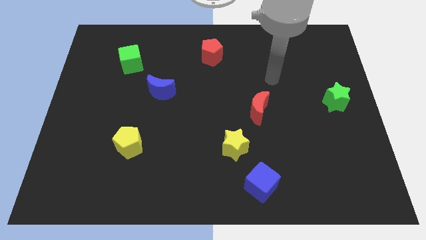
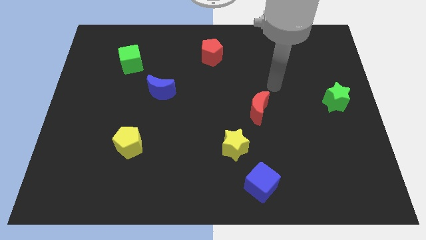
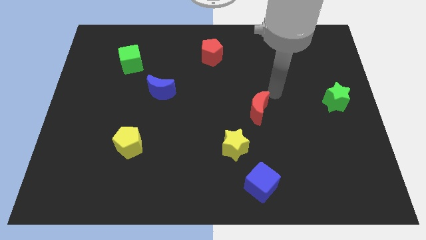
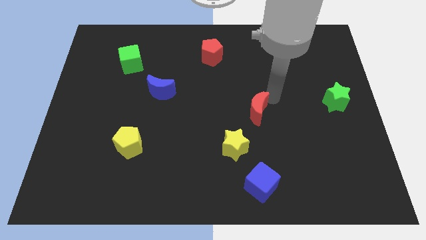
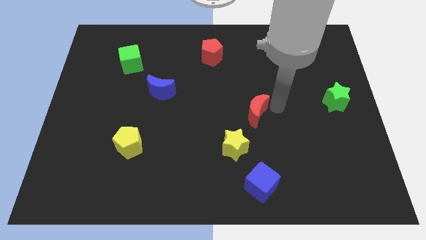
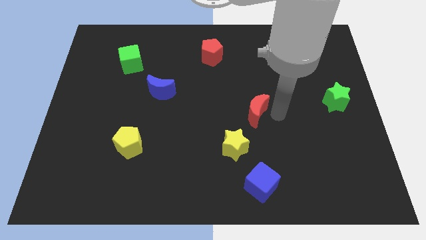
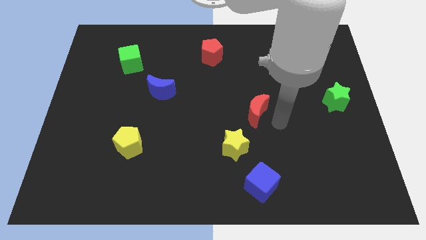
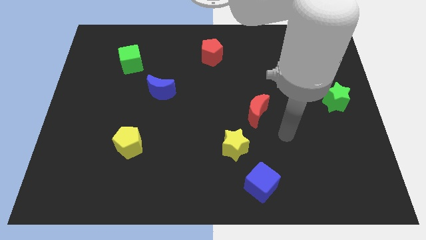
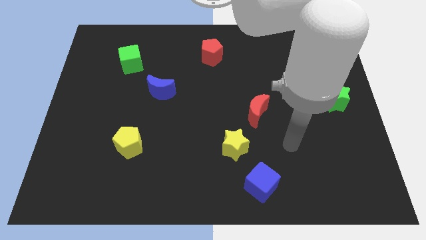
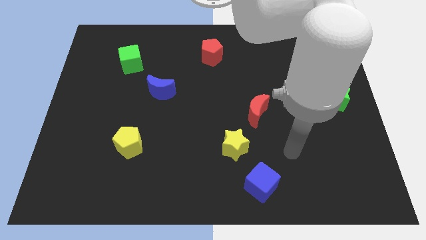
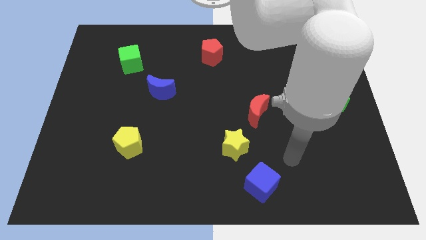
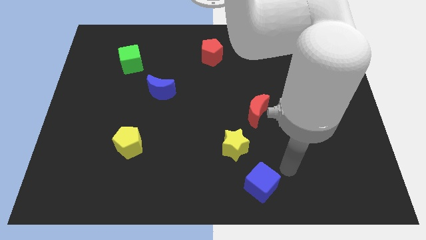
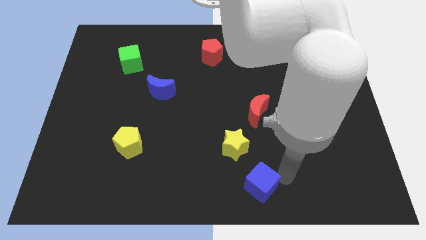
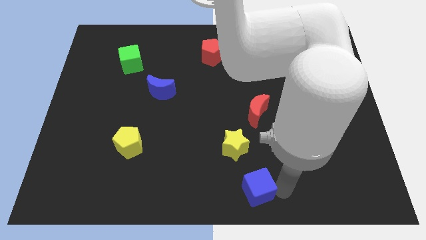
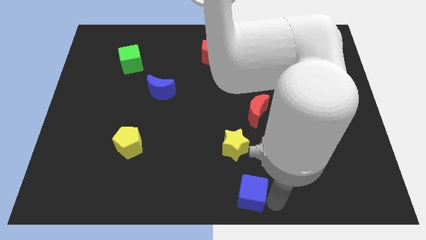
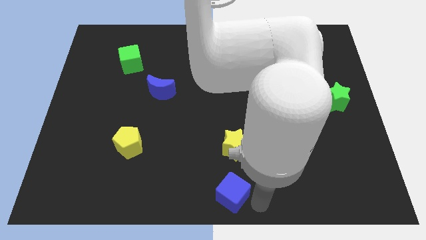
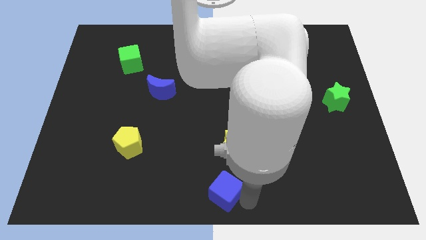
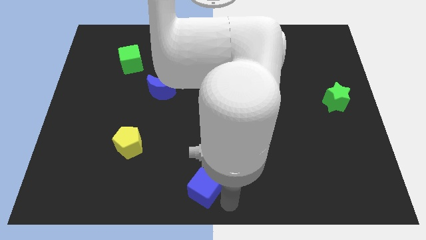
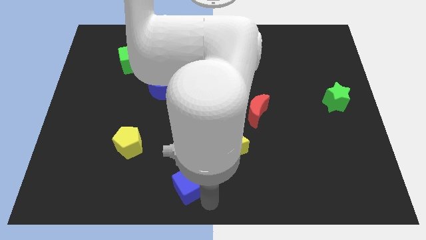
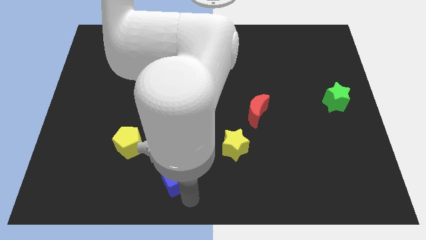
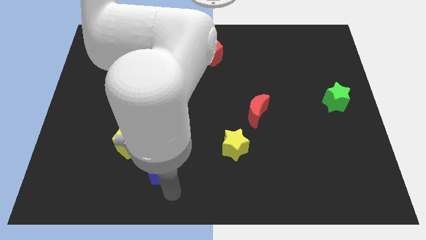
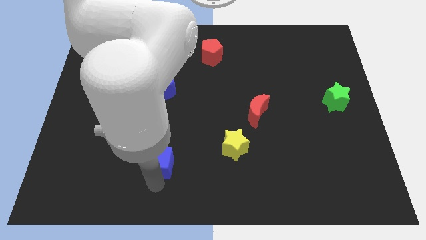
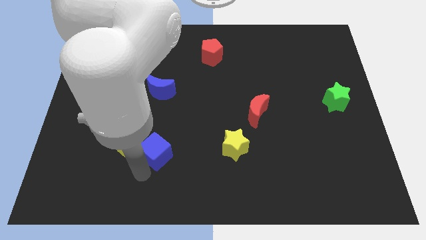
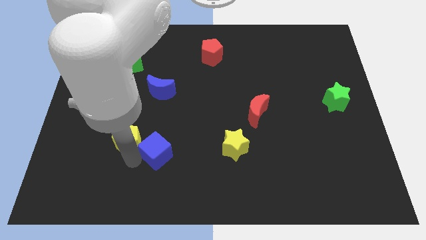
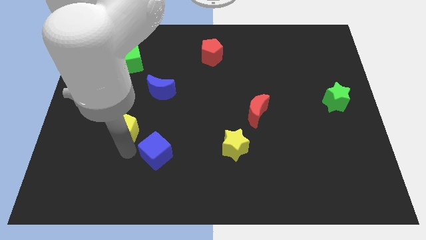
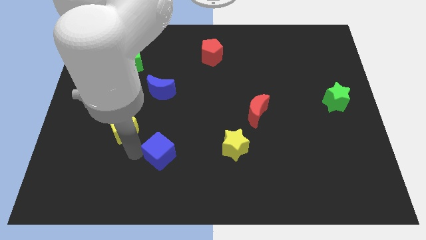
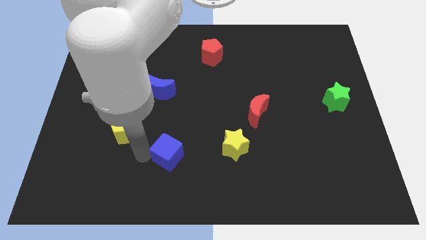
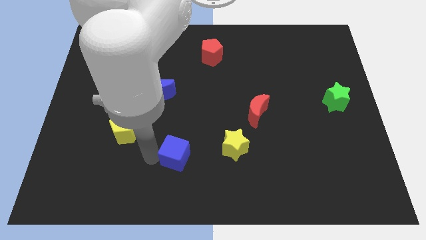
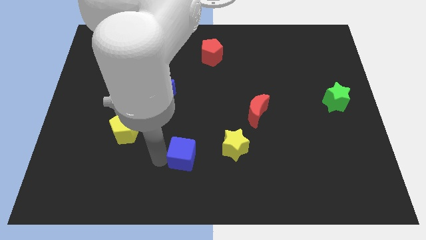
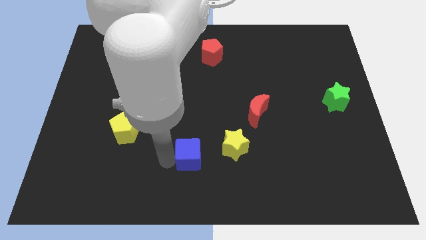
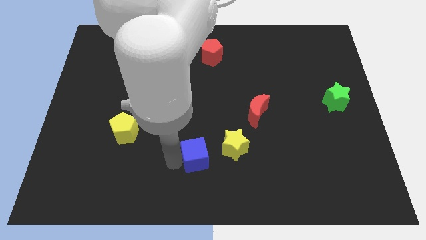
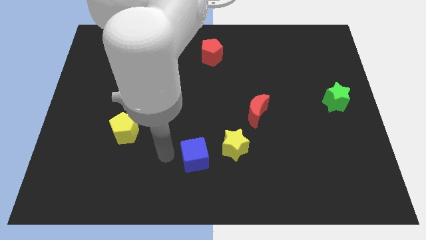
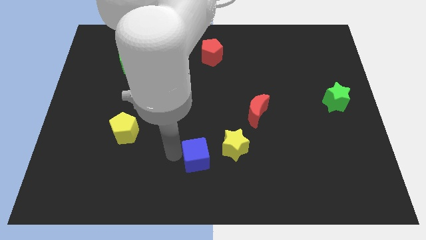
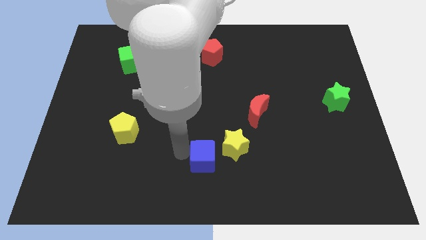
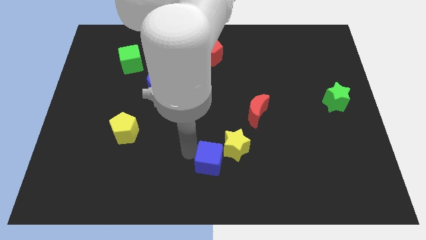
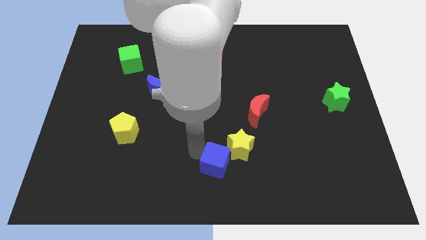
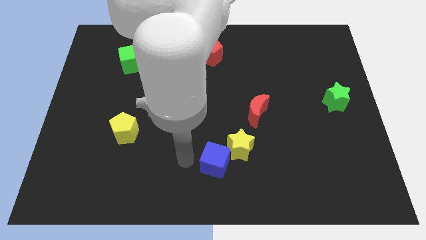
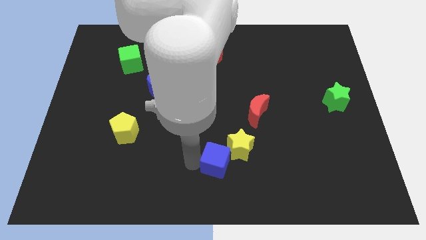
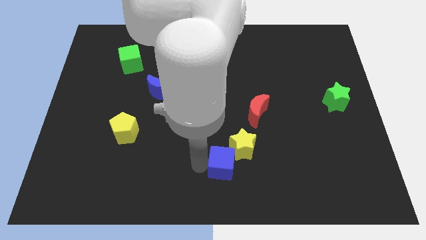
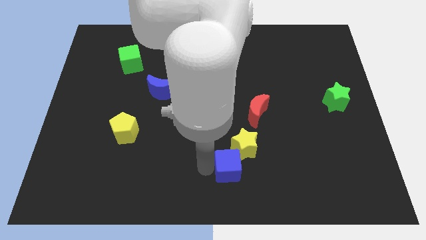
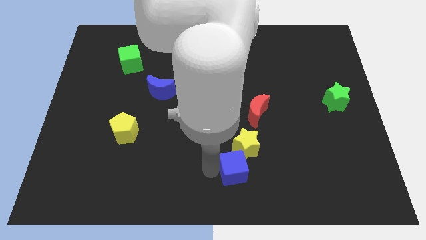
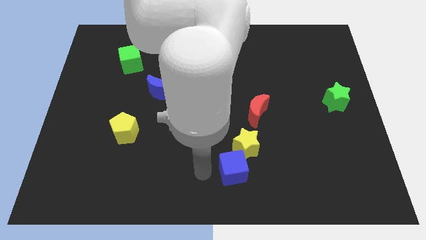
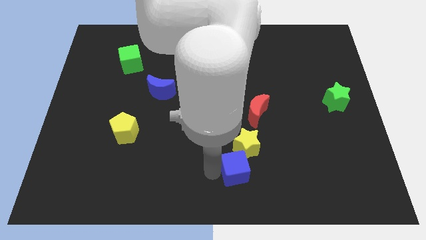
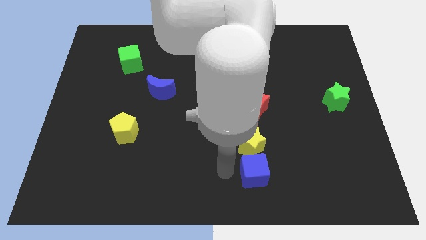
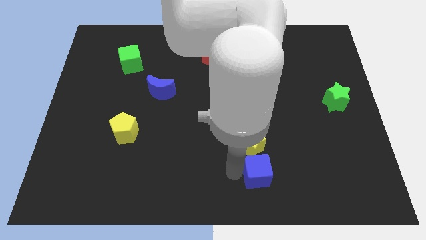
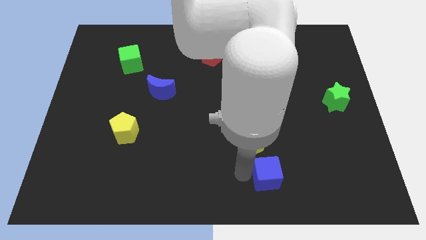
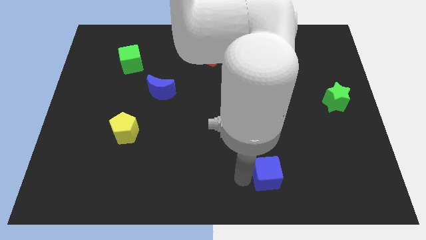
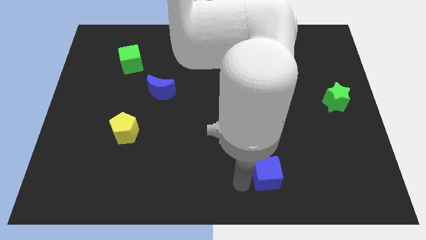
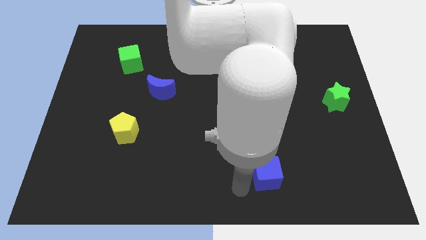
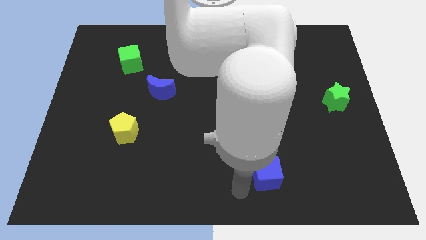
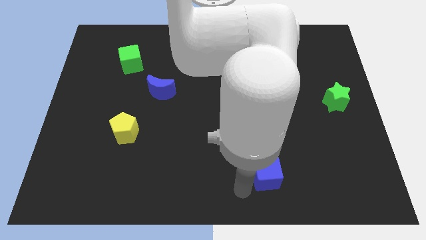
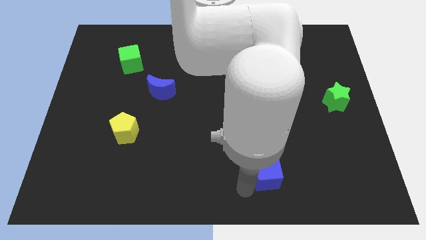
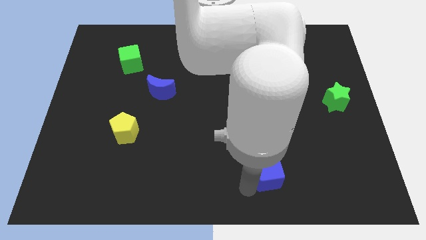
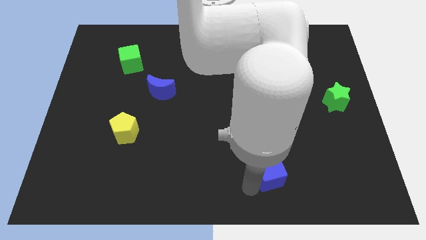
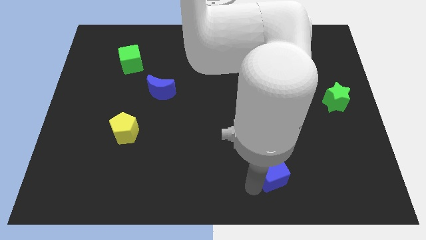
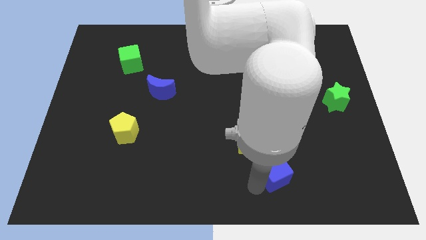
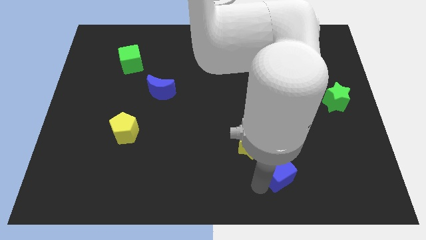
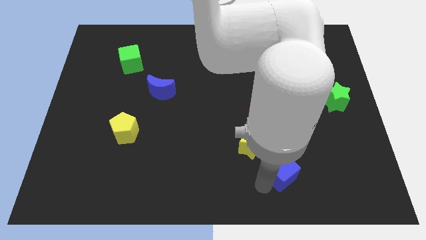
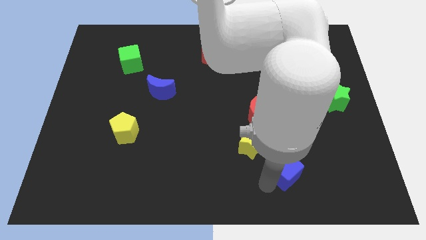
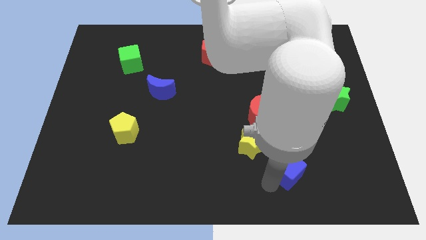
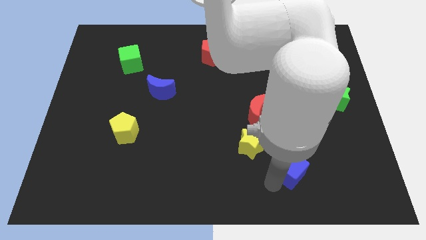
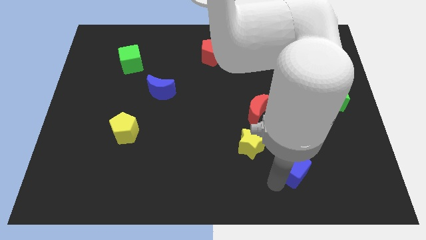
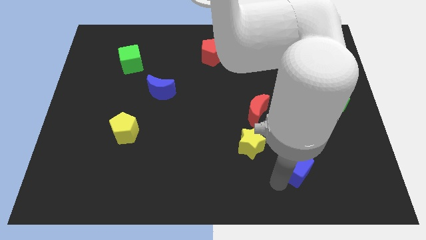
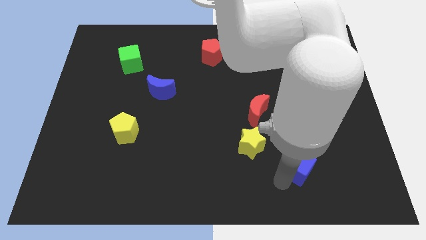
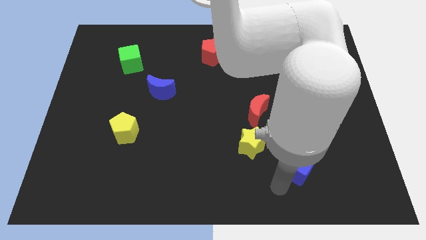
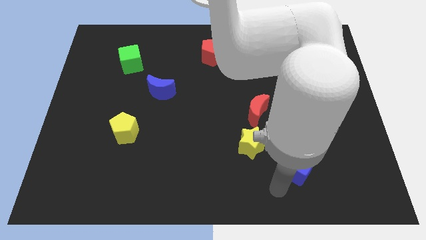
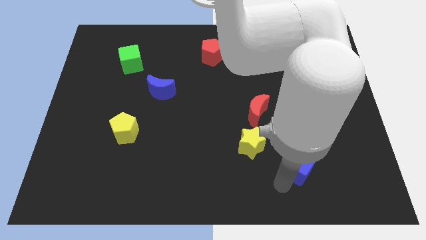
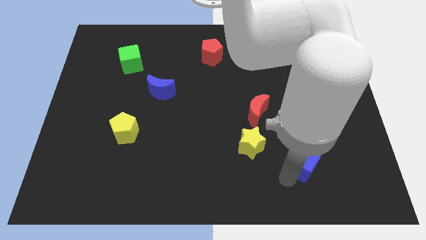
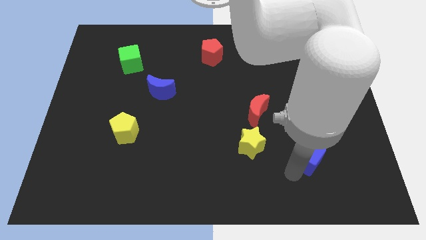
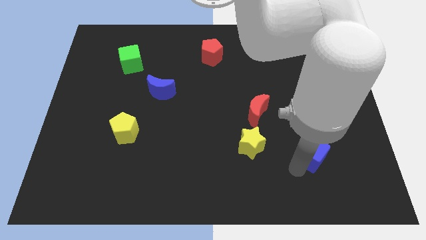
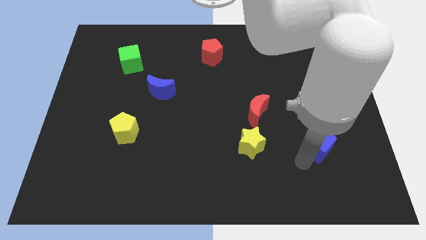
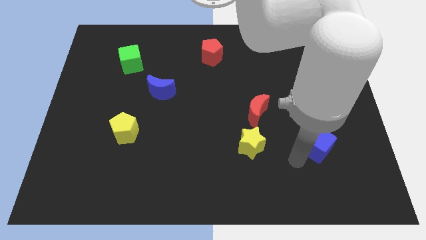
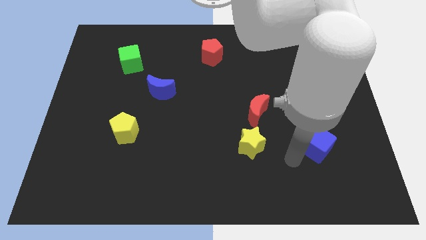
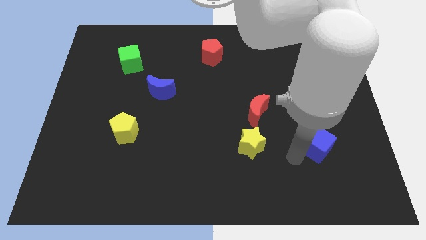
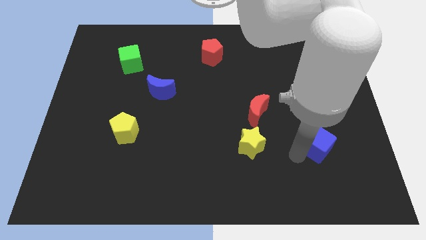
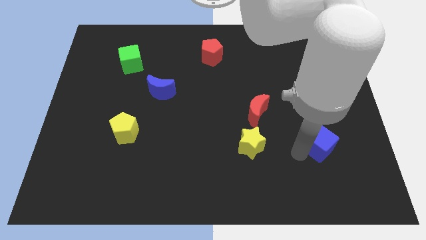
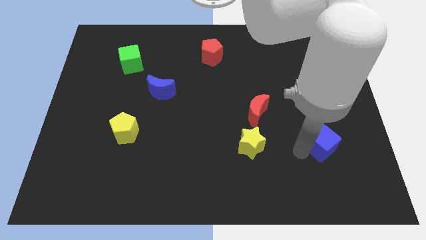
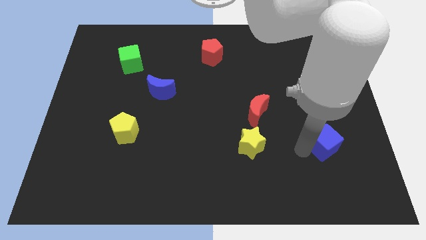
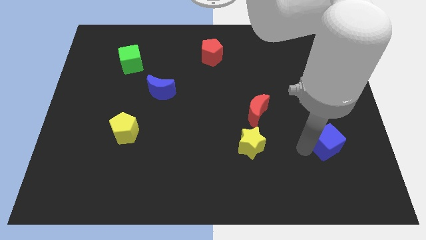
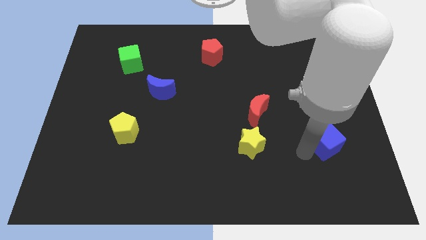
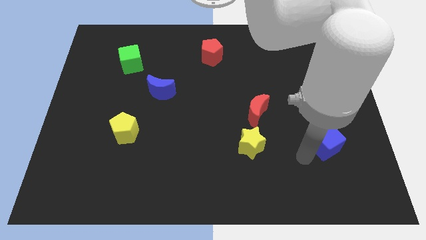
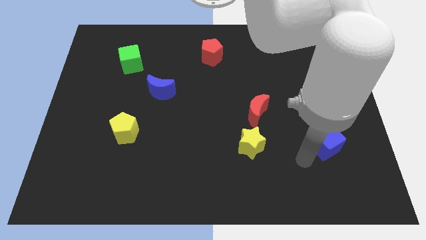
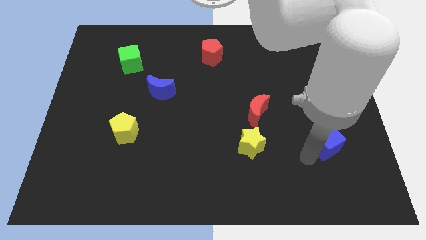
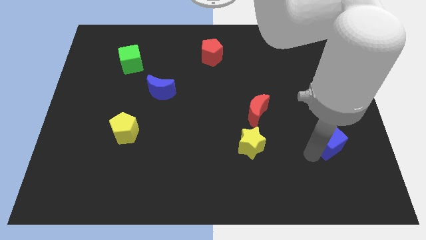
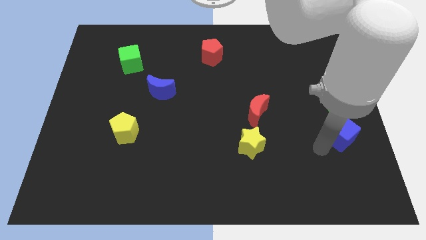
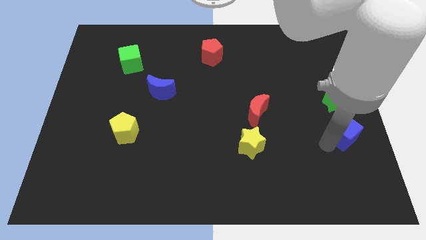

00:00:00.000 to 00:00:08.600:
move the blue cube to the center right
